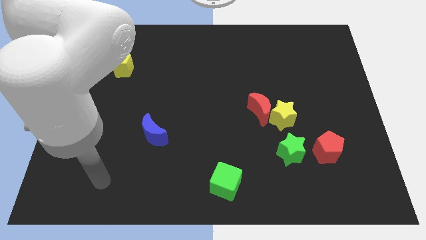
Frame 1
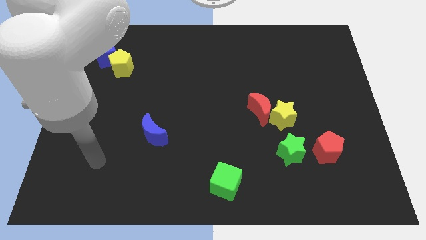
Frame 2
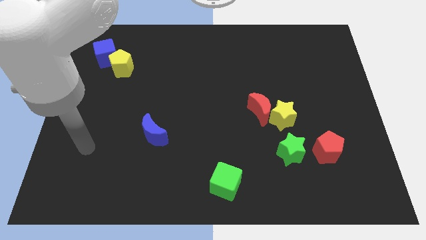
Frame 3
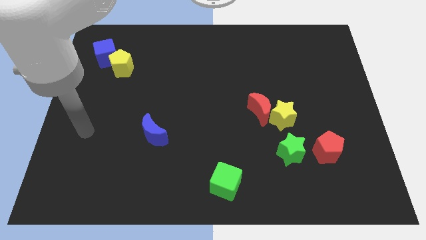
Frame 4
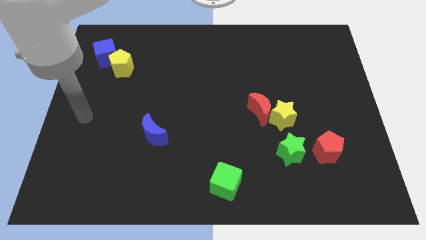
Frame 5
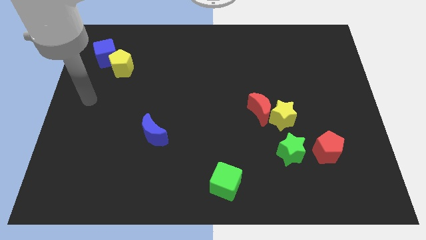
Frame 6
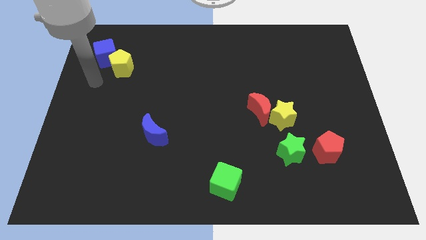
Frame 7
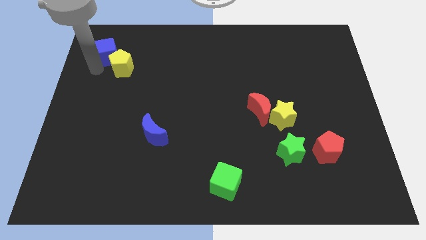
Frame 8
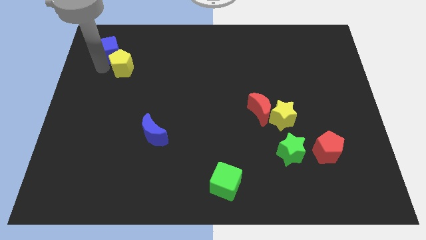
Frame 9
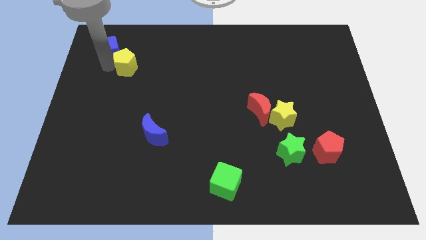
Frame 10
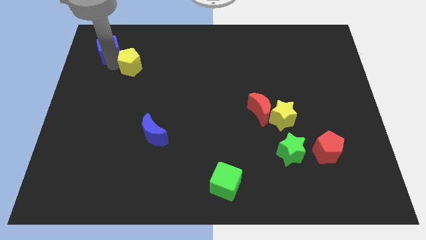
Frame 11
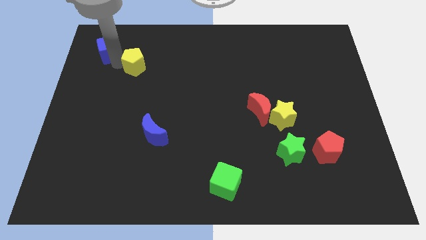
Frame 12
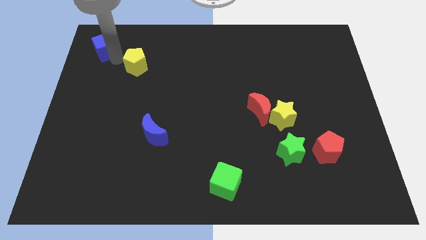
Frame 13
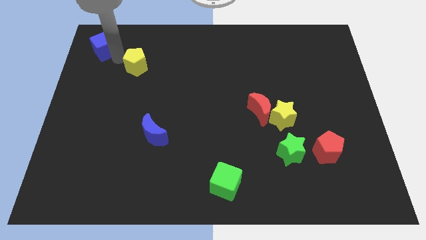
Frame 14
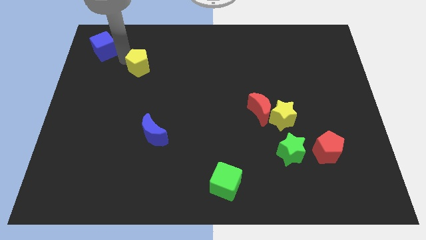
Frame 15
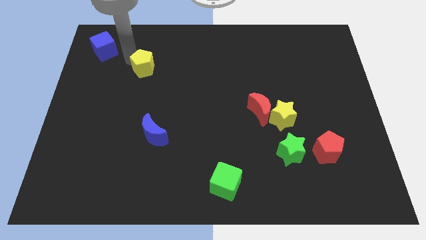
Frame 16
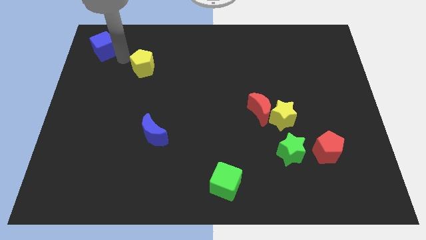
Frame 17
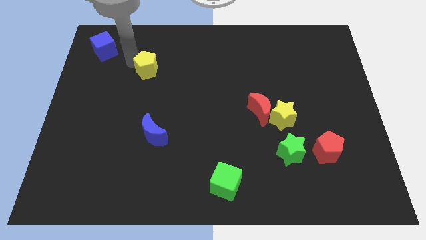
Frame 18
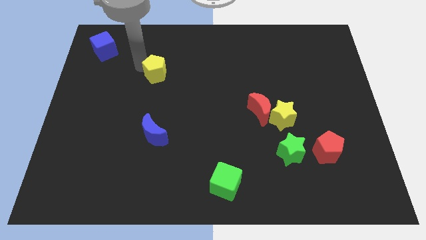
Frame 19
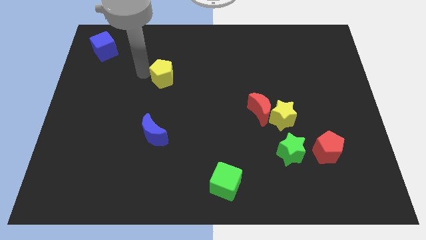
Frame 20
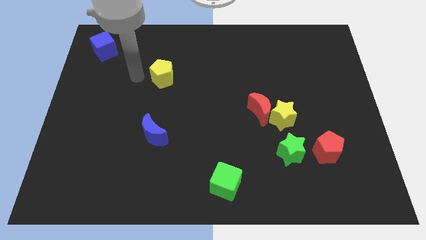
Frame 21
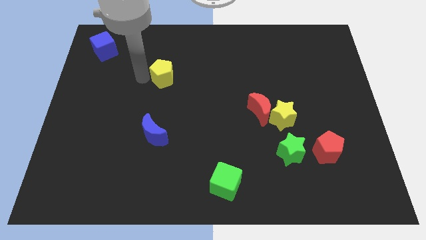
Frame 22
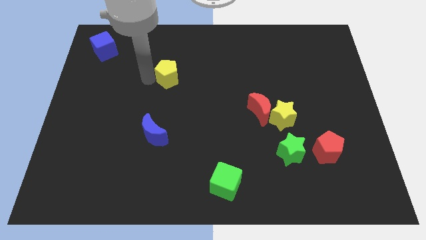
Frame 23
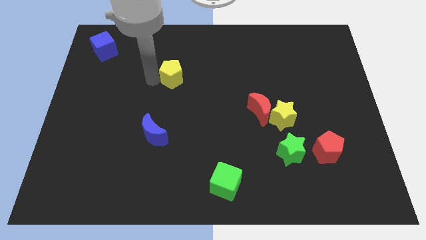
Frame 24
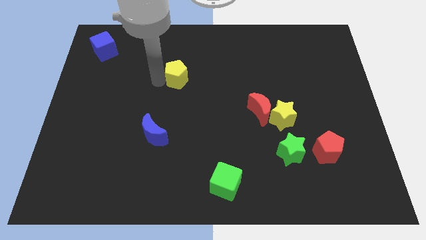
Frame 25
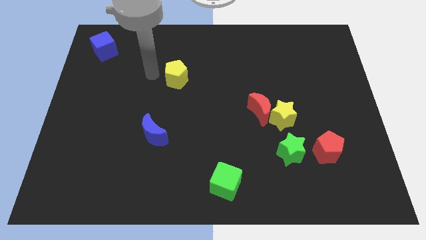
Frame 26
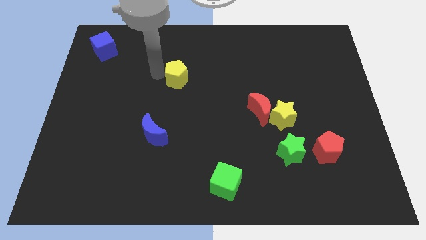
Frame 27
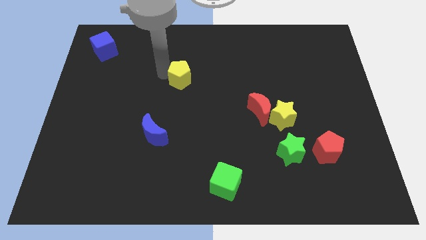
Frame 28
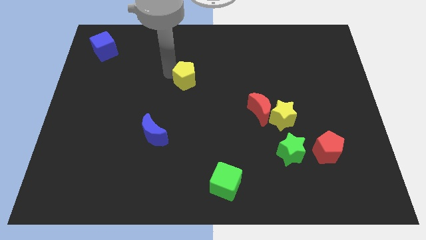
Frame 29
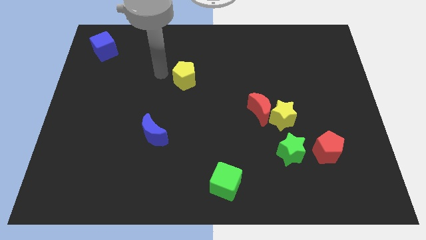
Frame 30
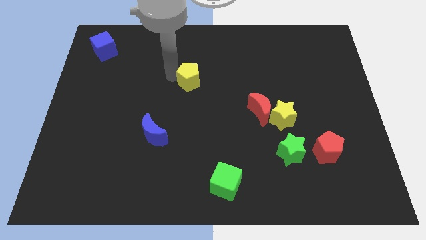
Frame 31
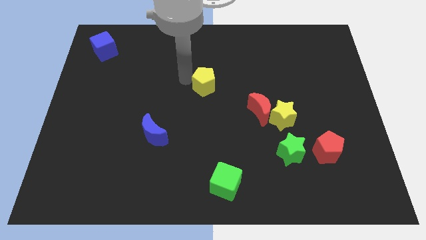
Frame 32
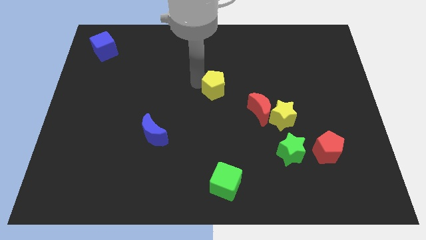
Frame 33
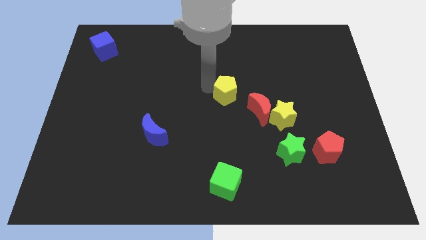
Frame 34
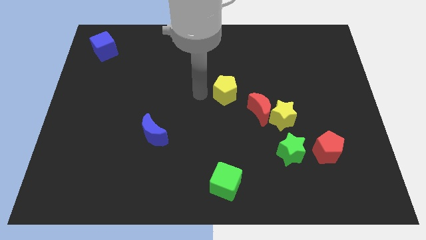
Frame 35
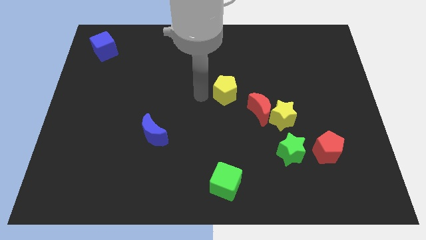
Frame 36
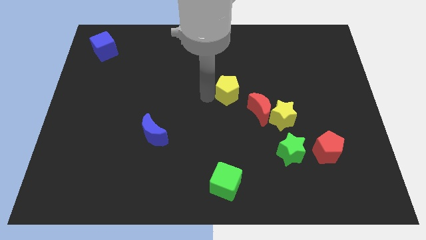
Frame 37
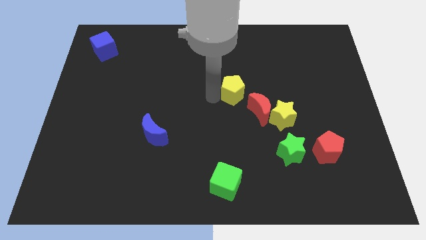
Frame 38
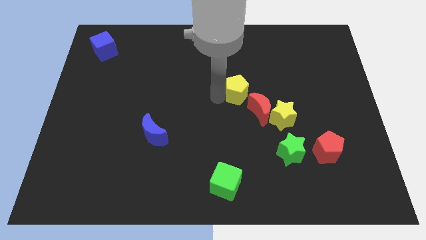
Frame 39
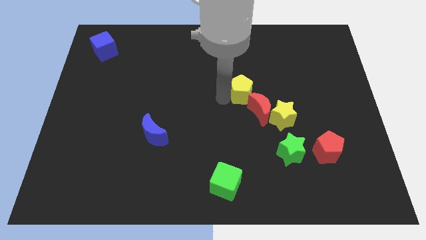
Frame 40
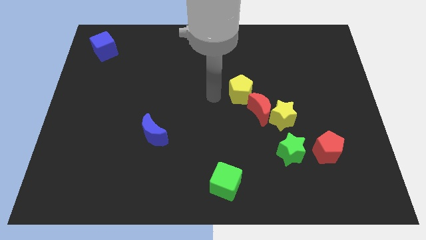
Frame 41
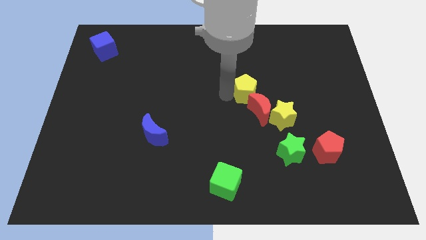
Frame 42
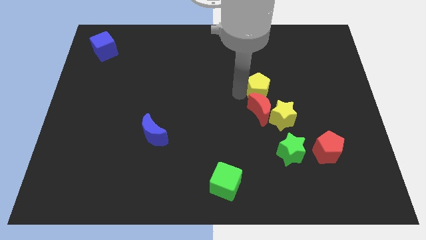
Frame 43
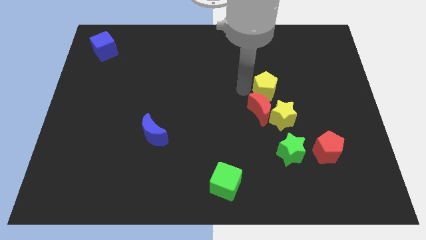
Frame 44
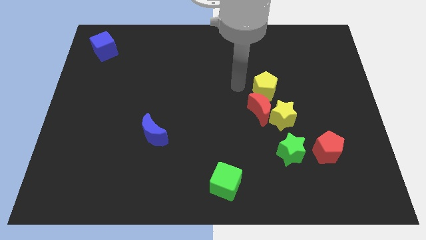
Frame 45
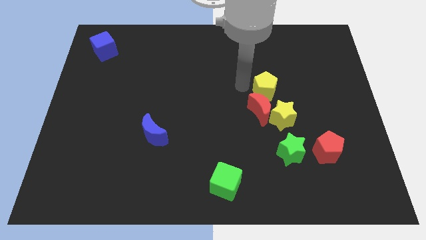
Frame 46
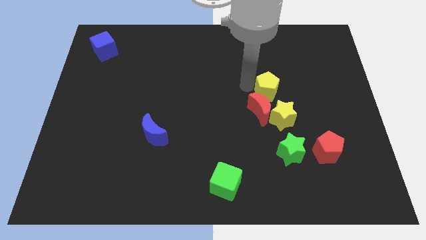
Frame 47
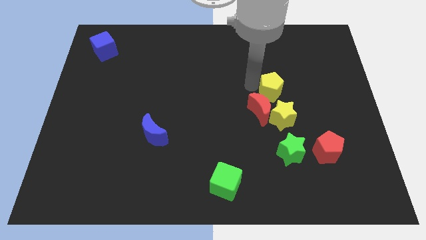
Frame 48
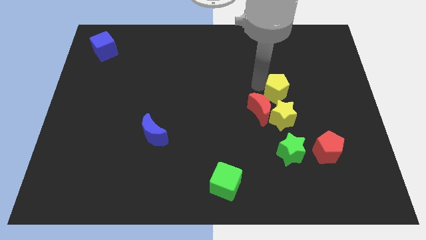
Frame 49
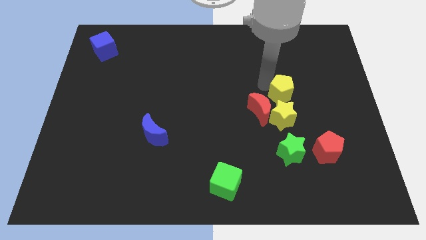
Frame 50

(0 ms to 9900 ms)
slide the yellow pentagon to the top right of the yellow star

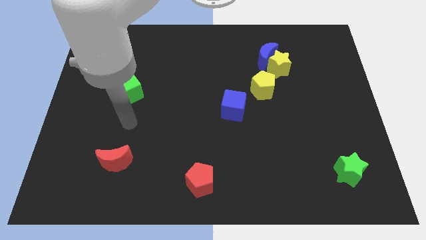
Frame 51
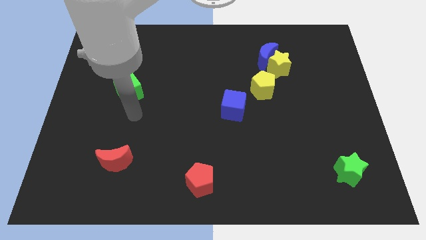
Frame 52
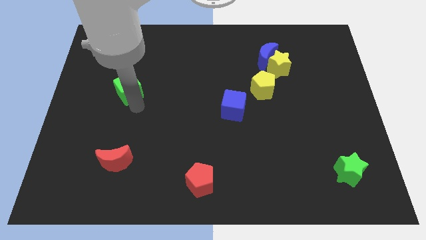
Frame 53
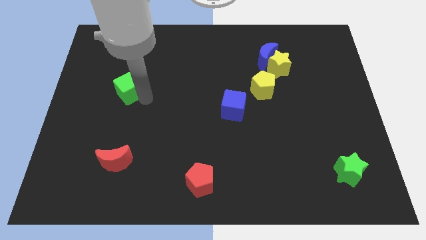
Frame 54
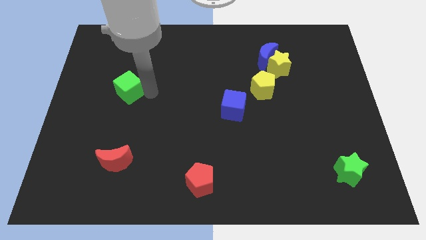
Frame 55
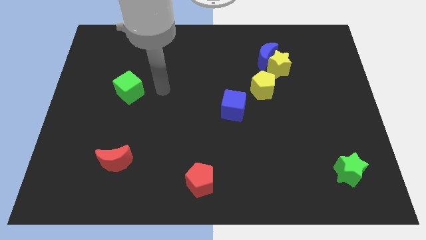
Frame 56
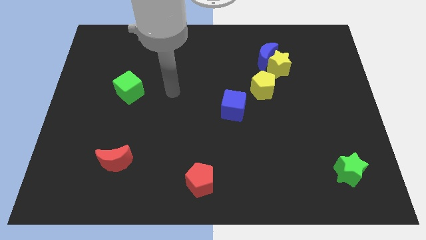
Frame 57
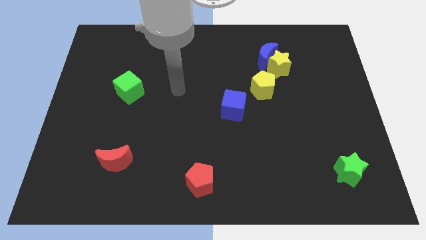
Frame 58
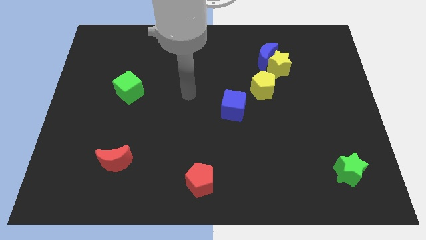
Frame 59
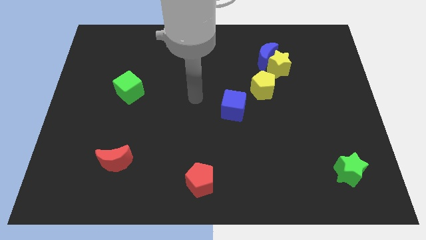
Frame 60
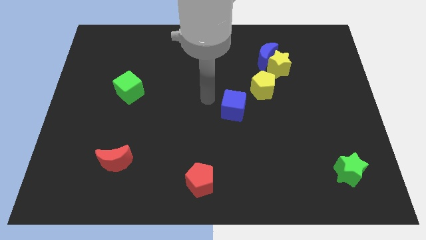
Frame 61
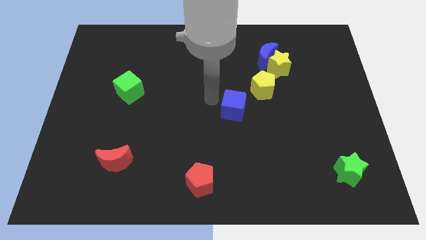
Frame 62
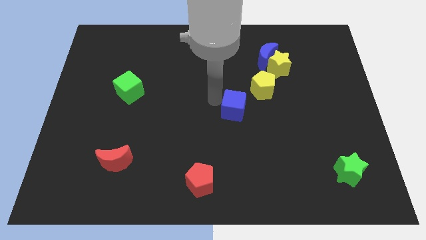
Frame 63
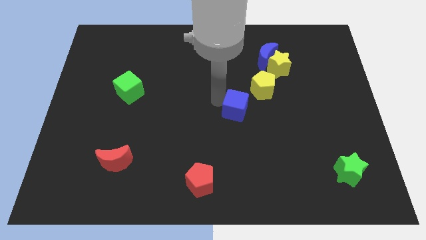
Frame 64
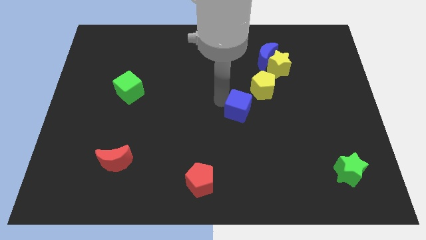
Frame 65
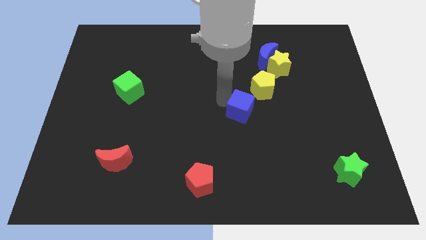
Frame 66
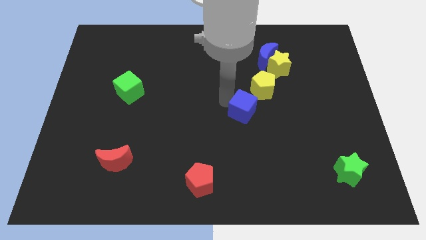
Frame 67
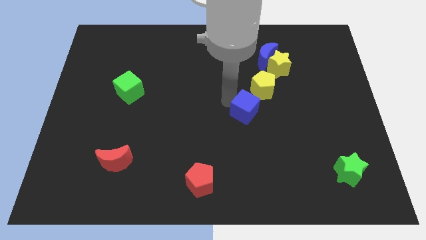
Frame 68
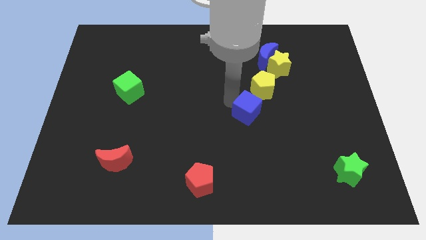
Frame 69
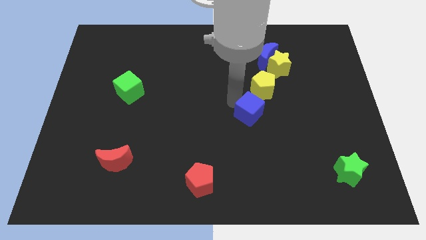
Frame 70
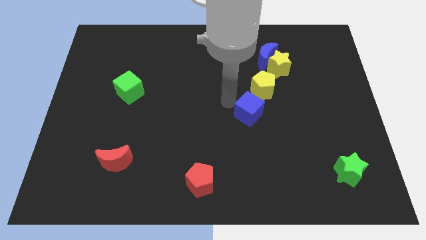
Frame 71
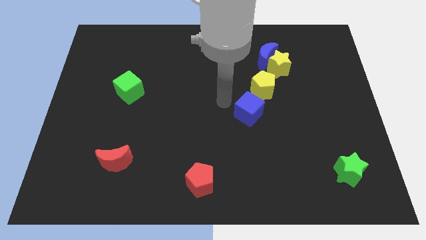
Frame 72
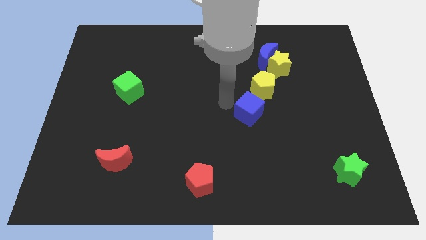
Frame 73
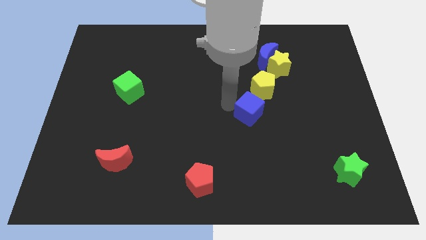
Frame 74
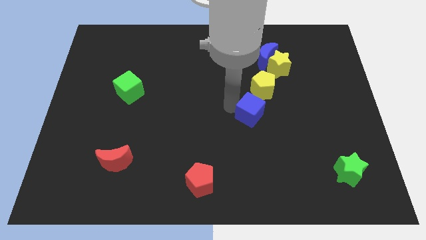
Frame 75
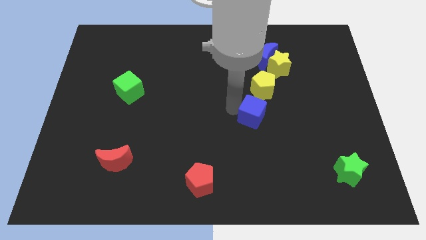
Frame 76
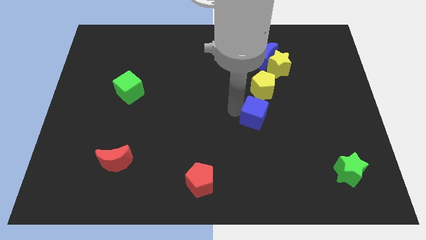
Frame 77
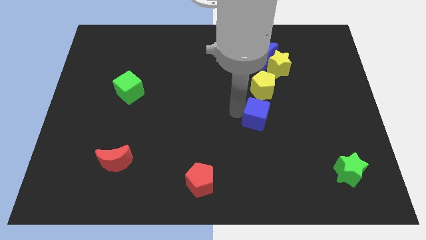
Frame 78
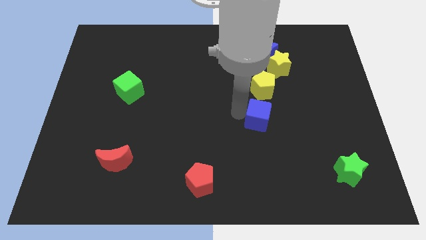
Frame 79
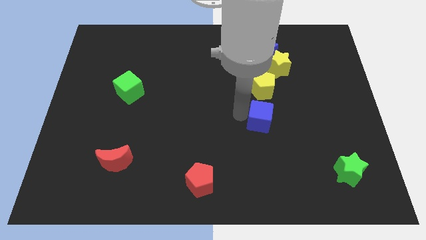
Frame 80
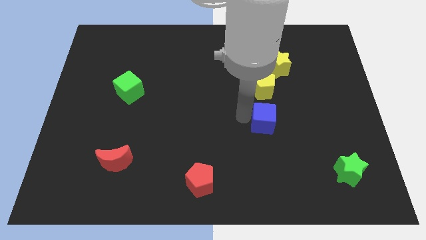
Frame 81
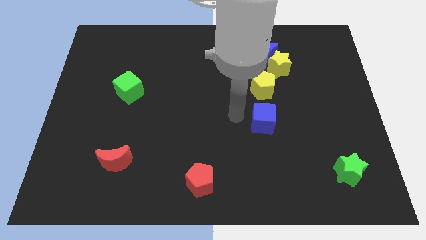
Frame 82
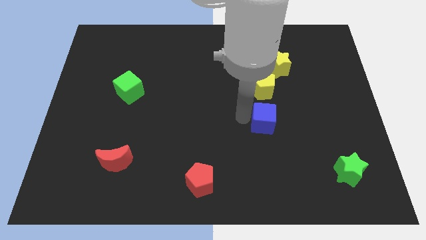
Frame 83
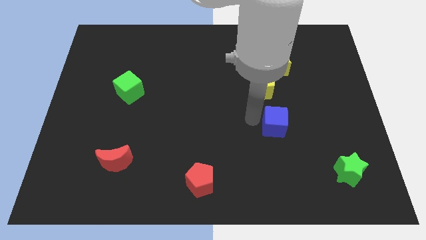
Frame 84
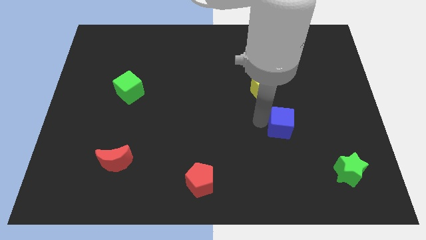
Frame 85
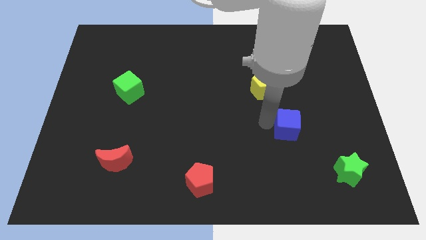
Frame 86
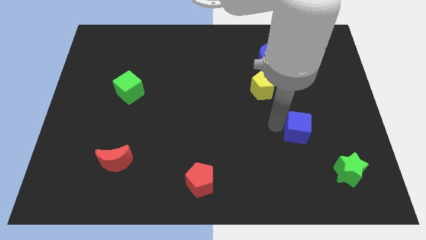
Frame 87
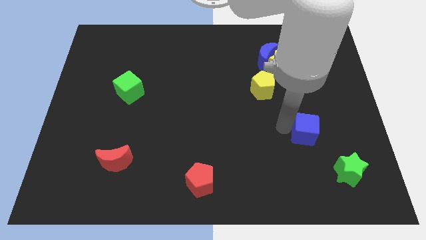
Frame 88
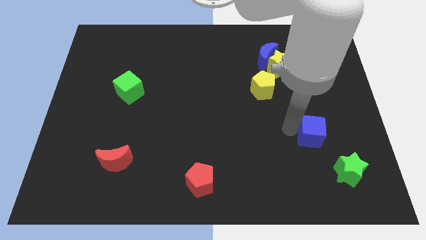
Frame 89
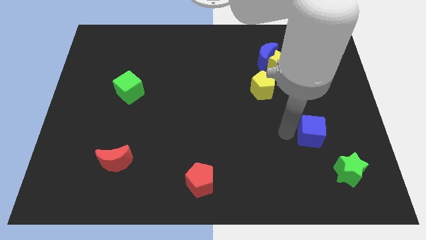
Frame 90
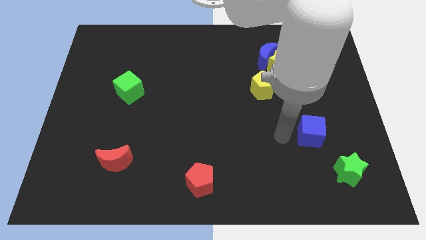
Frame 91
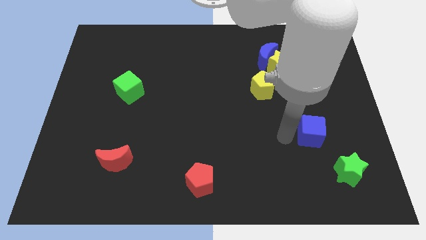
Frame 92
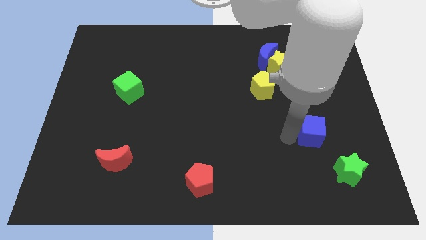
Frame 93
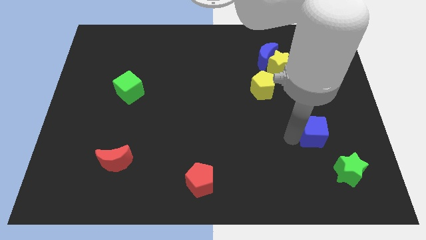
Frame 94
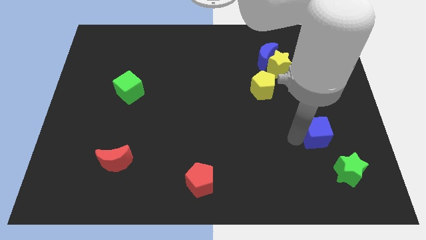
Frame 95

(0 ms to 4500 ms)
push the blue cube above the green star
